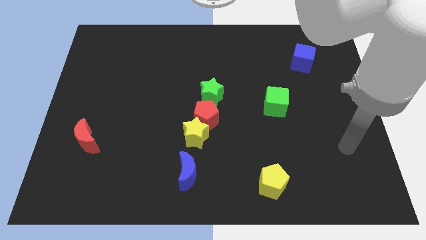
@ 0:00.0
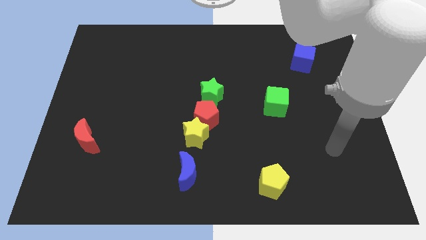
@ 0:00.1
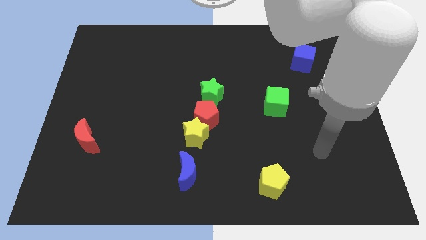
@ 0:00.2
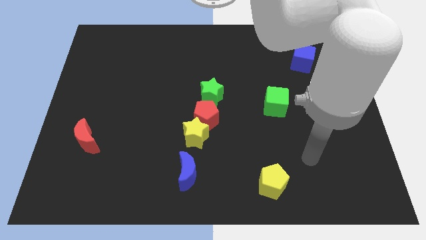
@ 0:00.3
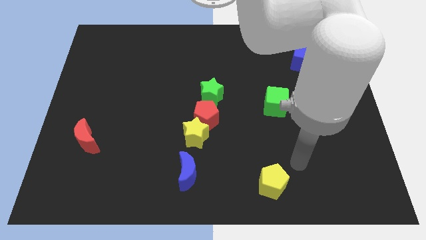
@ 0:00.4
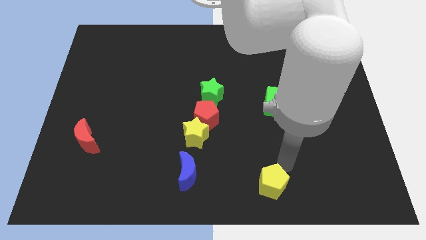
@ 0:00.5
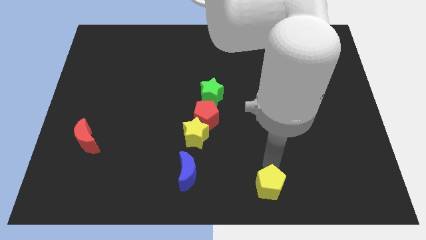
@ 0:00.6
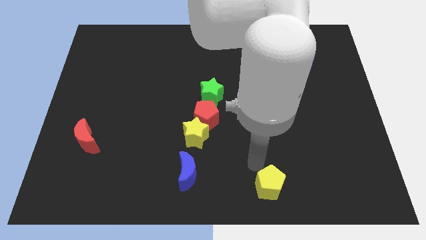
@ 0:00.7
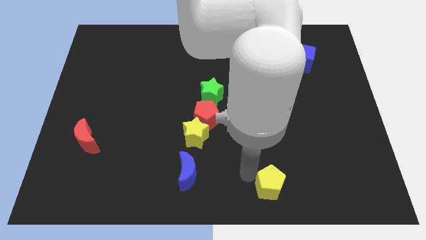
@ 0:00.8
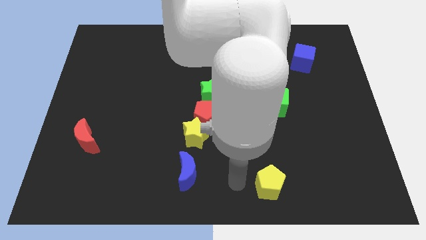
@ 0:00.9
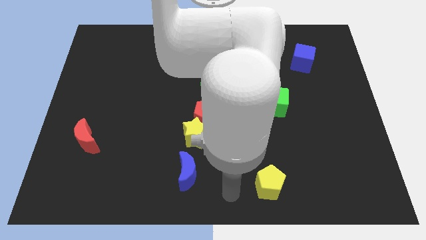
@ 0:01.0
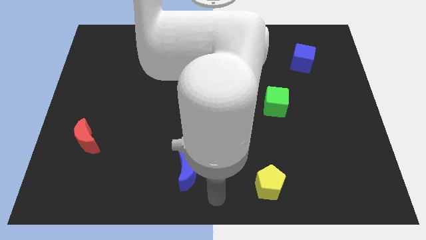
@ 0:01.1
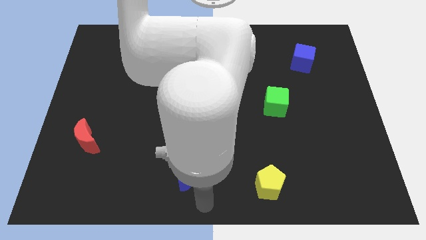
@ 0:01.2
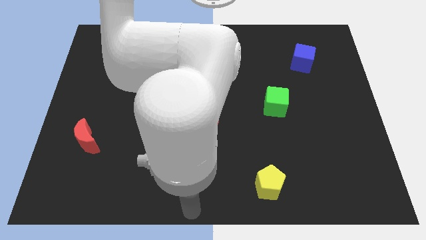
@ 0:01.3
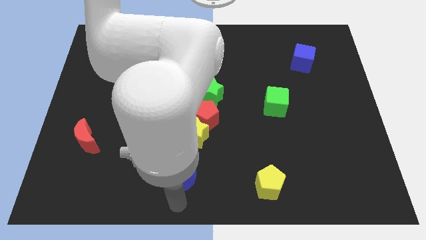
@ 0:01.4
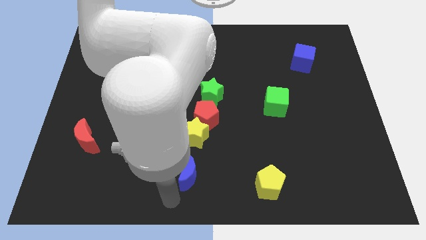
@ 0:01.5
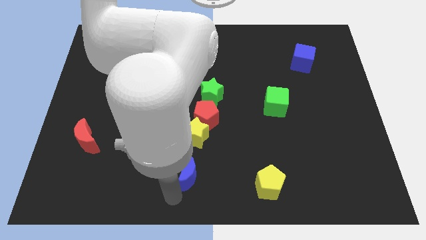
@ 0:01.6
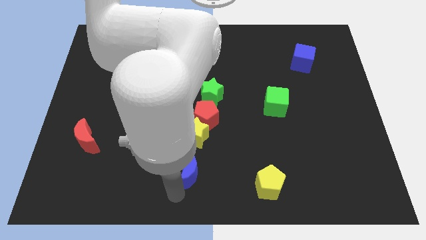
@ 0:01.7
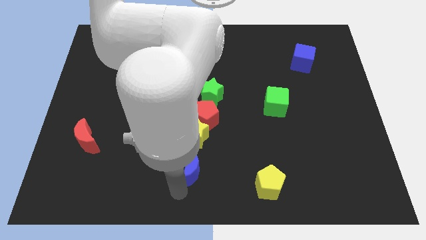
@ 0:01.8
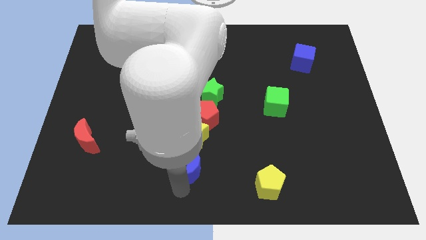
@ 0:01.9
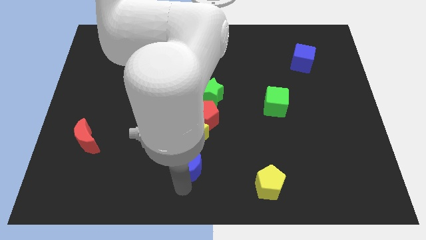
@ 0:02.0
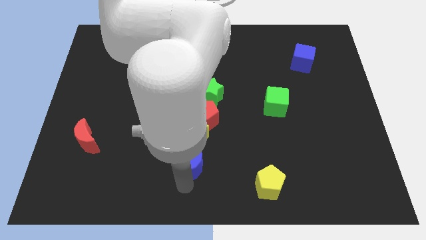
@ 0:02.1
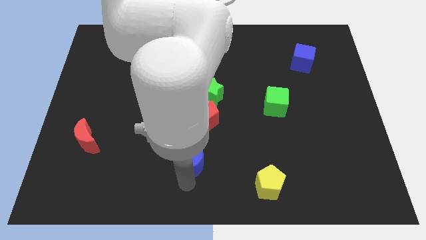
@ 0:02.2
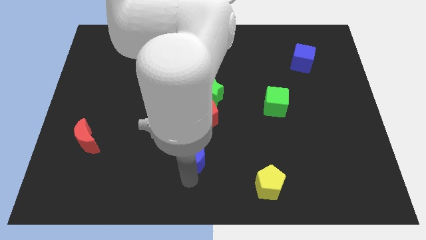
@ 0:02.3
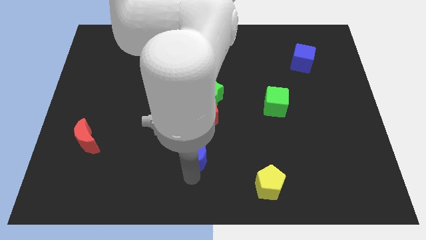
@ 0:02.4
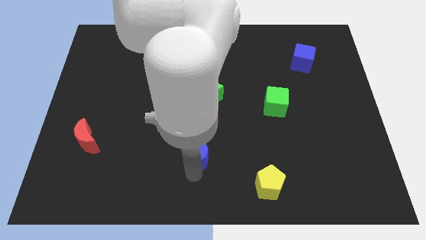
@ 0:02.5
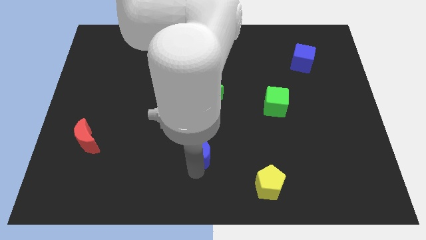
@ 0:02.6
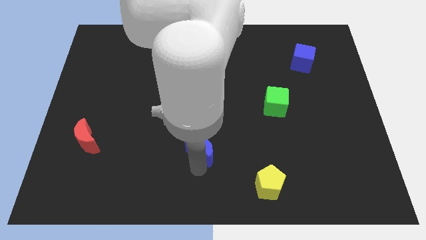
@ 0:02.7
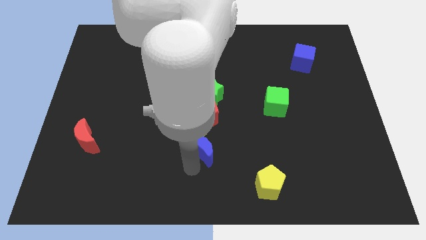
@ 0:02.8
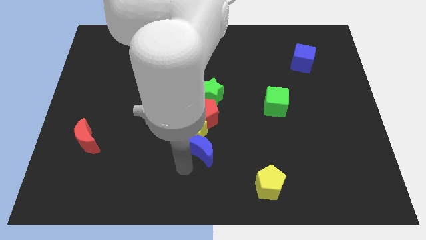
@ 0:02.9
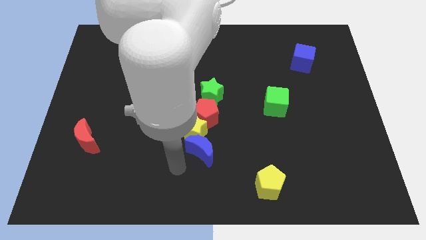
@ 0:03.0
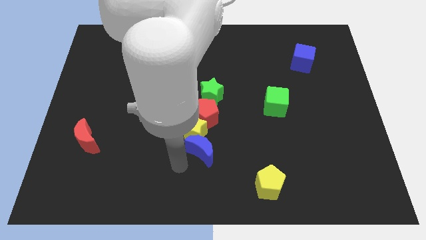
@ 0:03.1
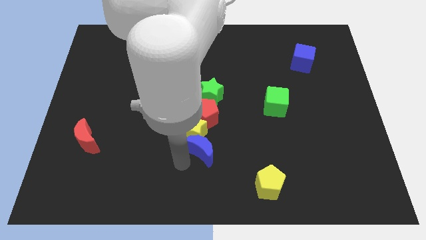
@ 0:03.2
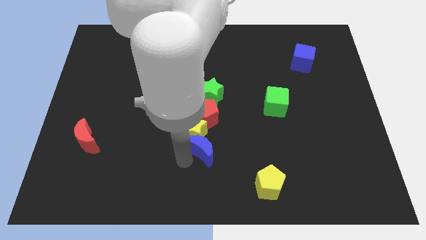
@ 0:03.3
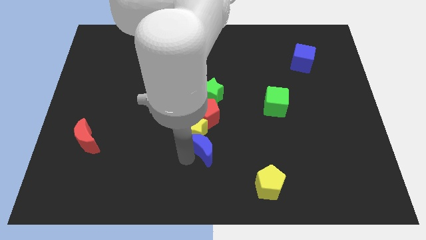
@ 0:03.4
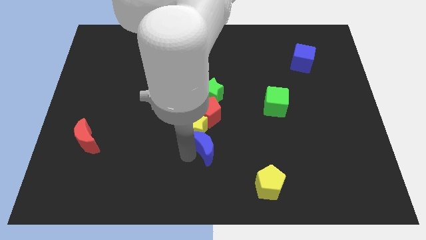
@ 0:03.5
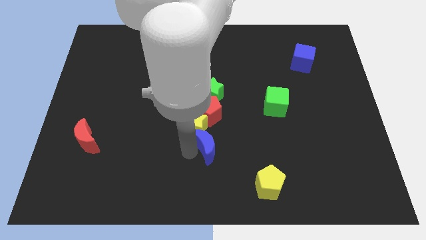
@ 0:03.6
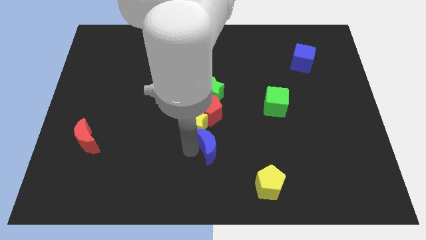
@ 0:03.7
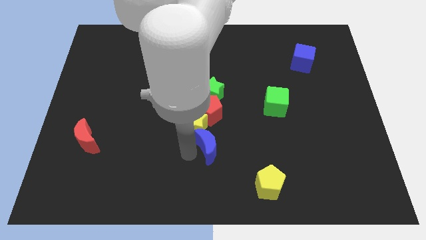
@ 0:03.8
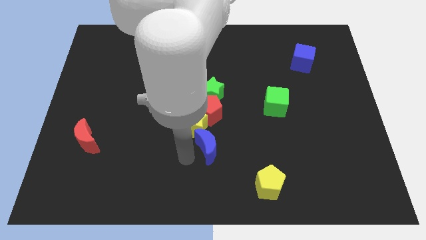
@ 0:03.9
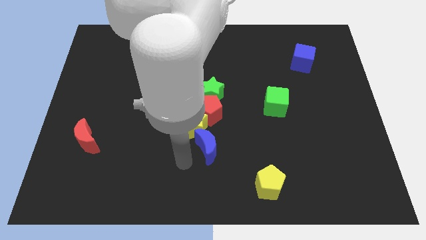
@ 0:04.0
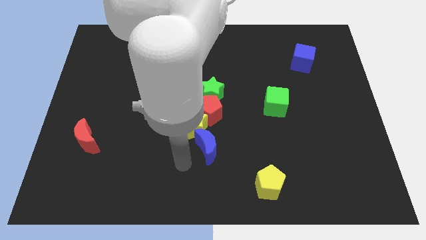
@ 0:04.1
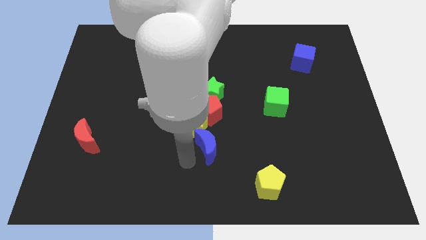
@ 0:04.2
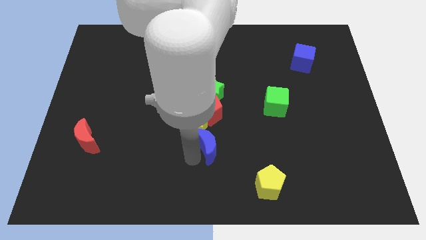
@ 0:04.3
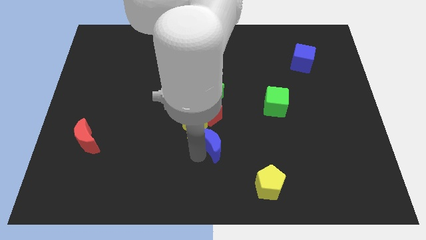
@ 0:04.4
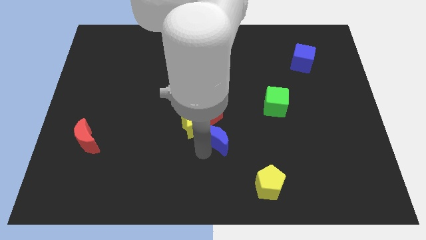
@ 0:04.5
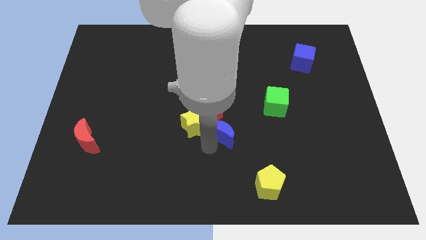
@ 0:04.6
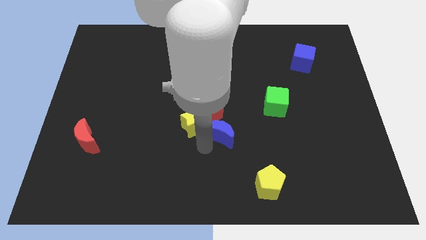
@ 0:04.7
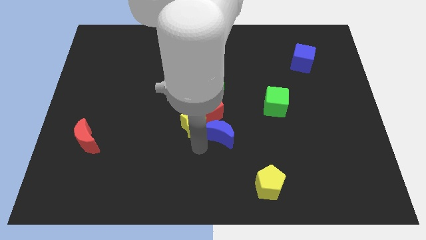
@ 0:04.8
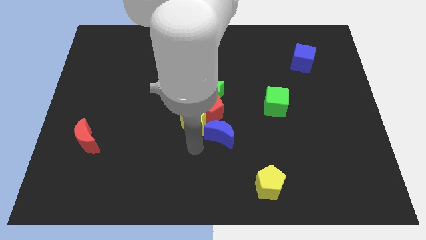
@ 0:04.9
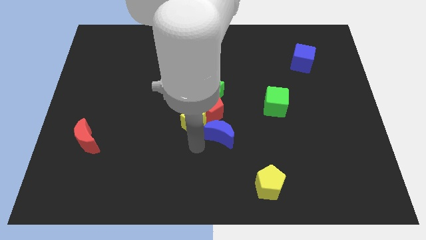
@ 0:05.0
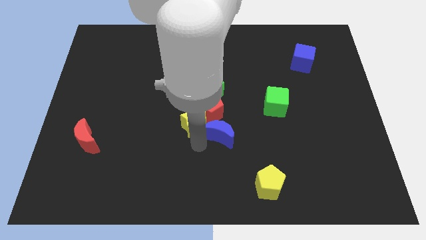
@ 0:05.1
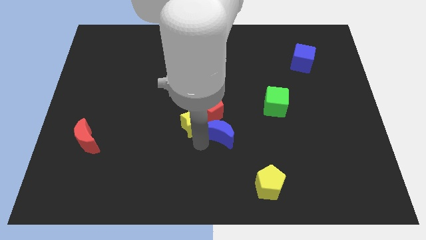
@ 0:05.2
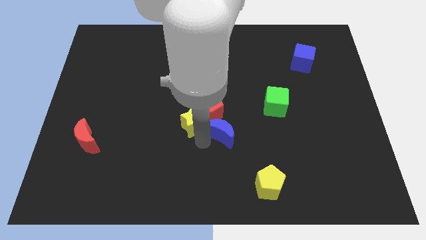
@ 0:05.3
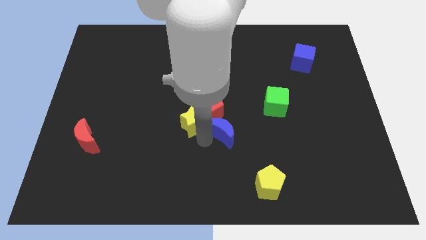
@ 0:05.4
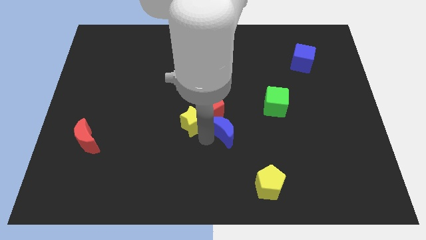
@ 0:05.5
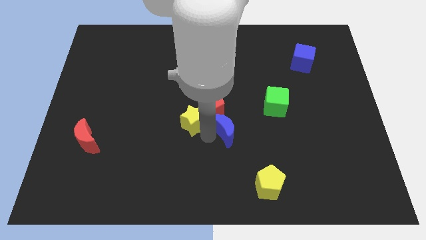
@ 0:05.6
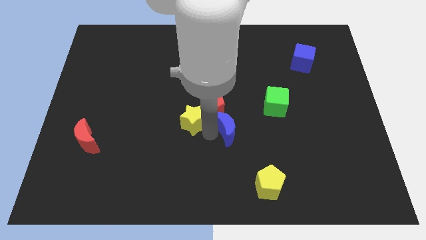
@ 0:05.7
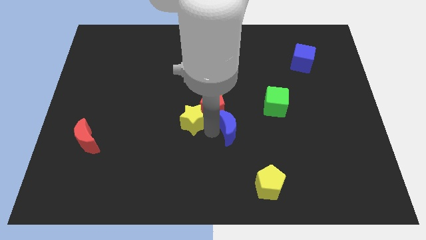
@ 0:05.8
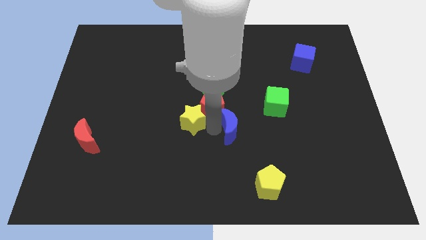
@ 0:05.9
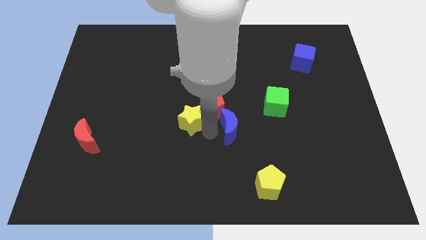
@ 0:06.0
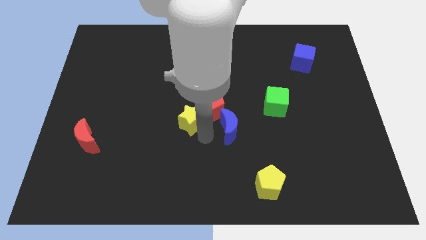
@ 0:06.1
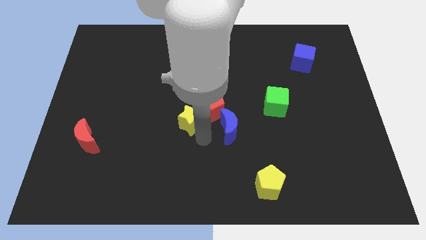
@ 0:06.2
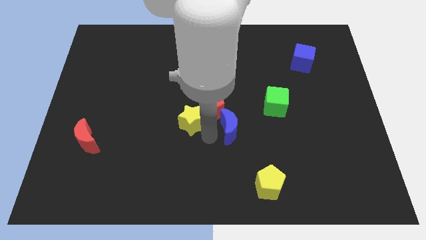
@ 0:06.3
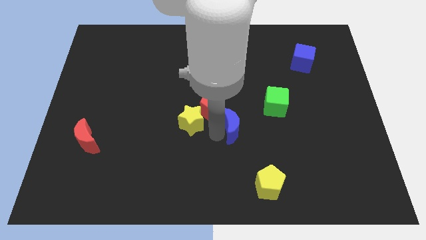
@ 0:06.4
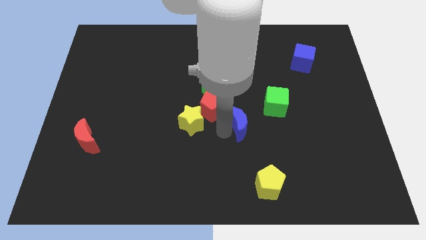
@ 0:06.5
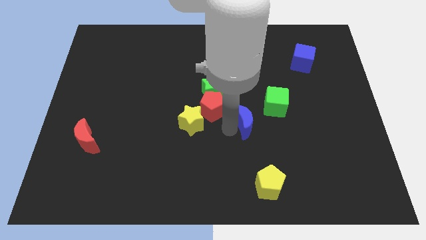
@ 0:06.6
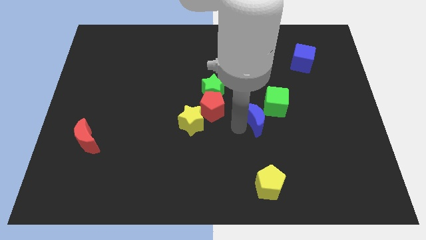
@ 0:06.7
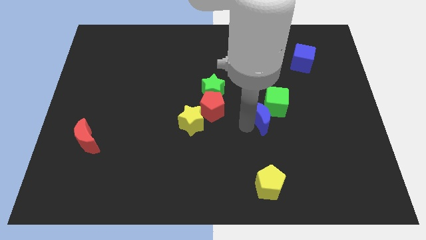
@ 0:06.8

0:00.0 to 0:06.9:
put the blue moon next to the green cube

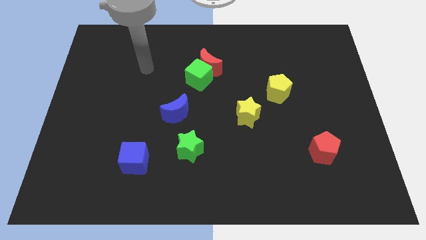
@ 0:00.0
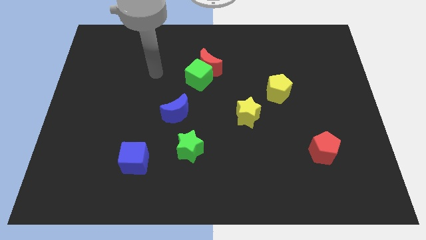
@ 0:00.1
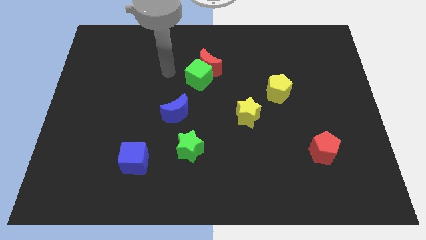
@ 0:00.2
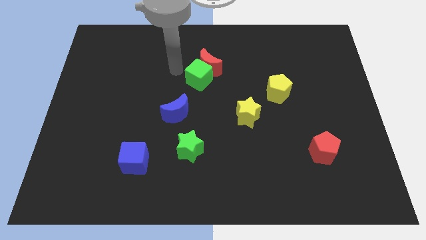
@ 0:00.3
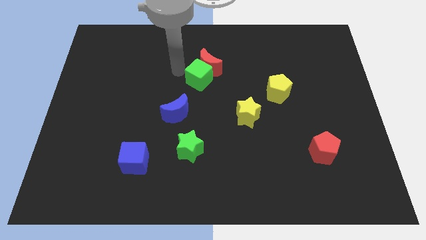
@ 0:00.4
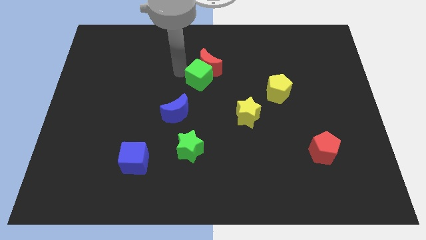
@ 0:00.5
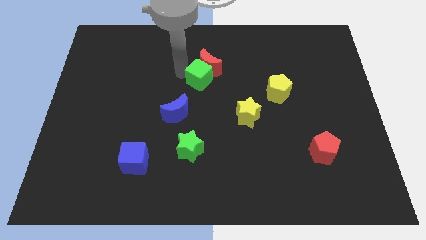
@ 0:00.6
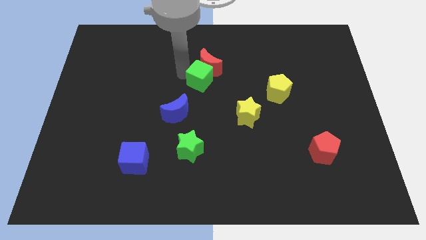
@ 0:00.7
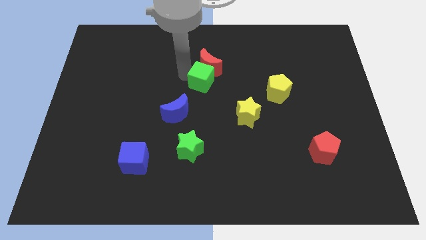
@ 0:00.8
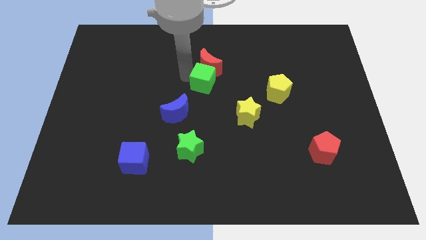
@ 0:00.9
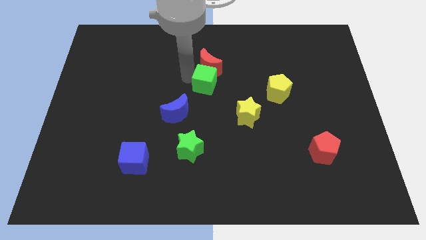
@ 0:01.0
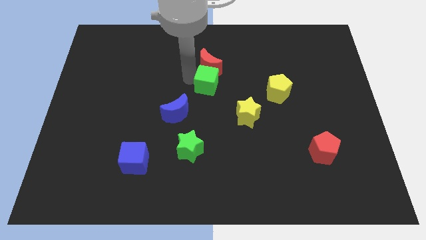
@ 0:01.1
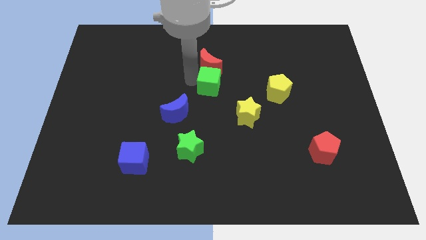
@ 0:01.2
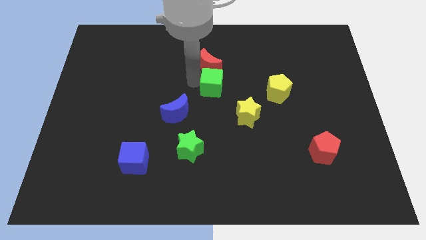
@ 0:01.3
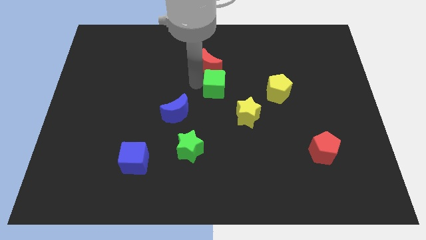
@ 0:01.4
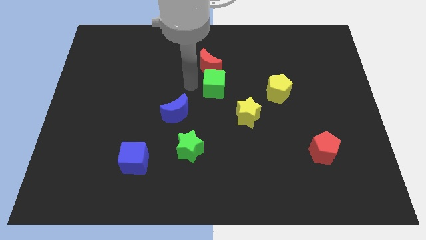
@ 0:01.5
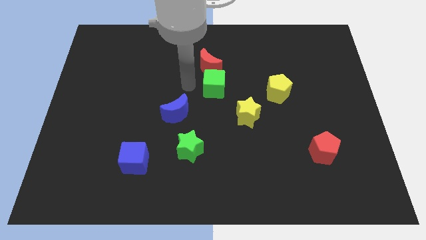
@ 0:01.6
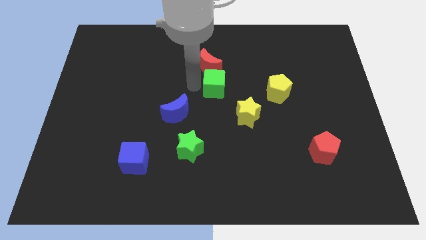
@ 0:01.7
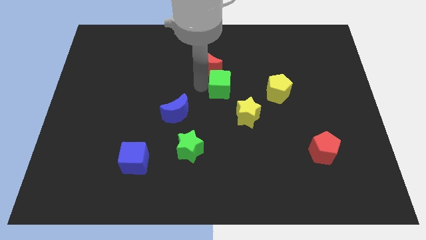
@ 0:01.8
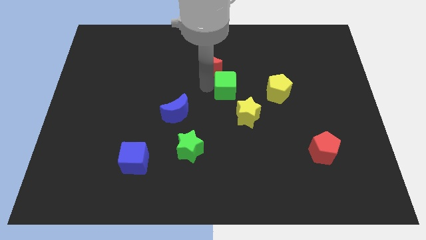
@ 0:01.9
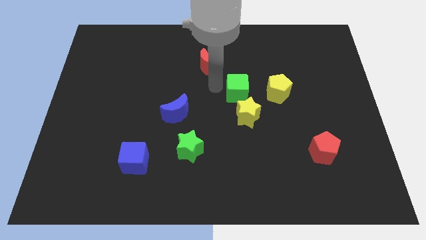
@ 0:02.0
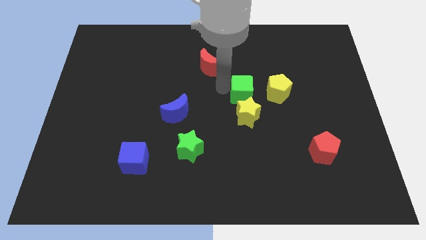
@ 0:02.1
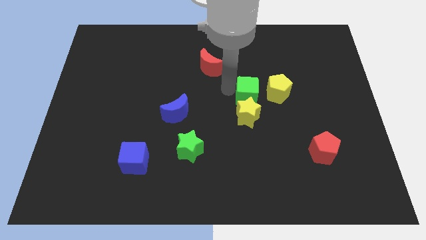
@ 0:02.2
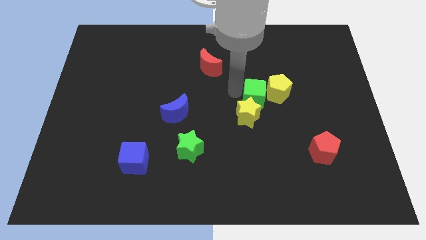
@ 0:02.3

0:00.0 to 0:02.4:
put the green cube next to the yellow pentagon
